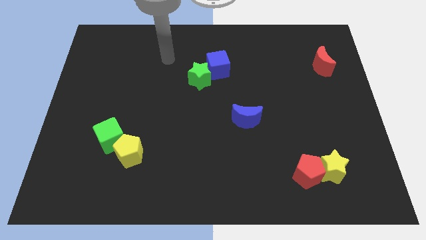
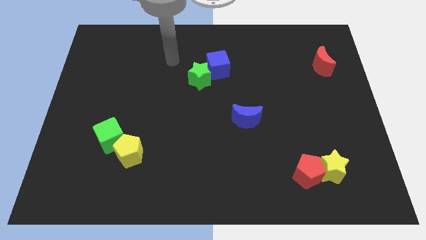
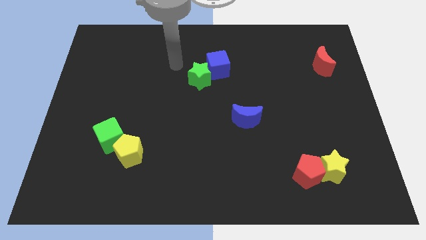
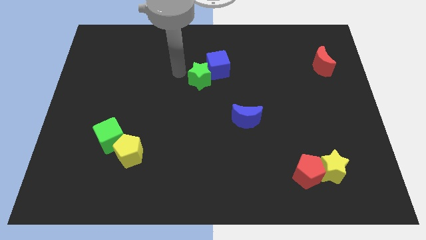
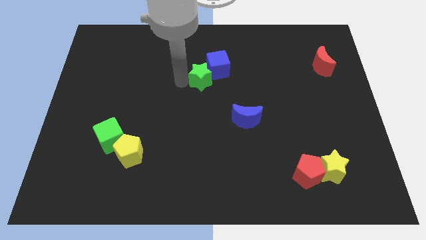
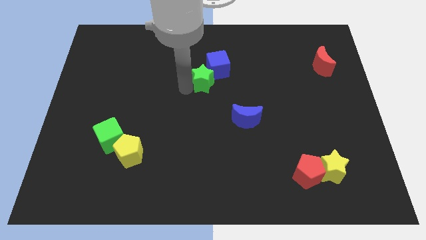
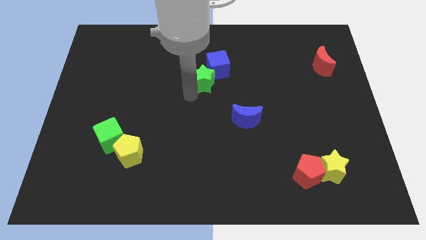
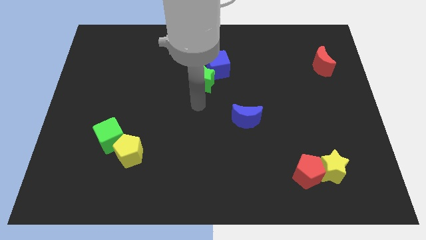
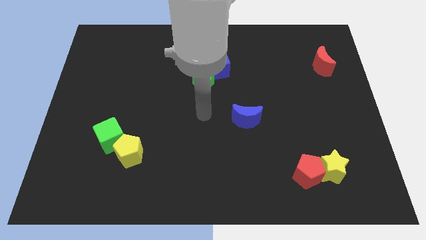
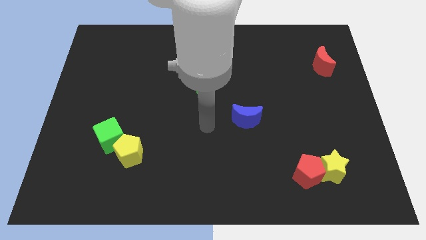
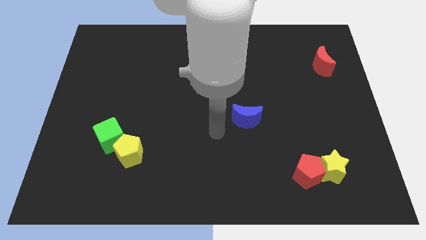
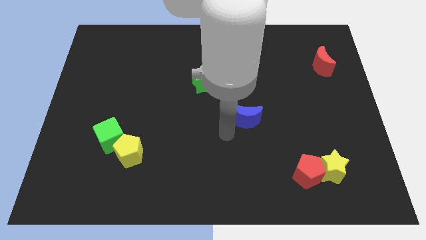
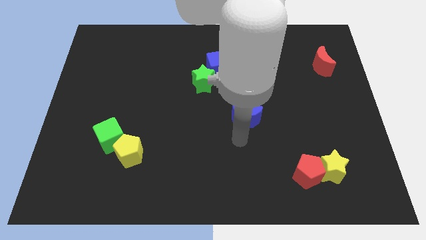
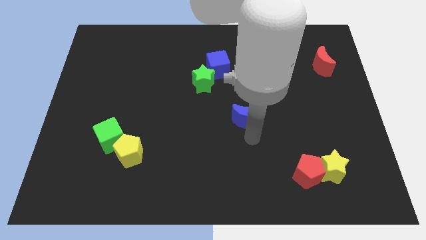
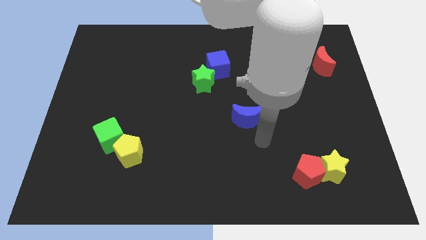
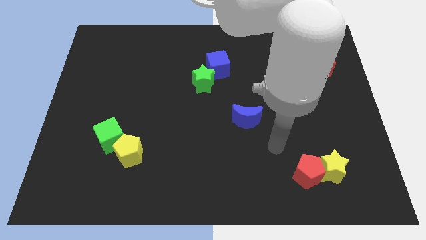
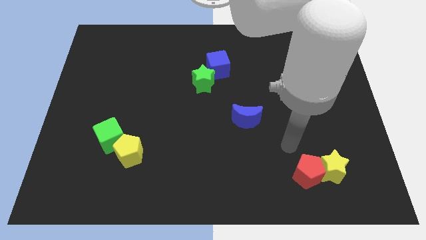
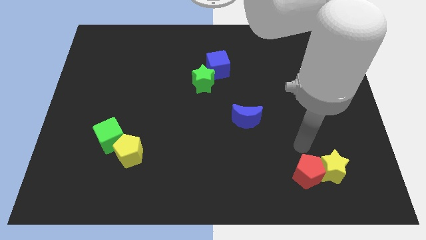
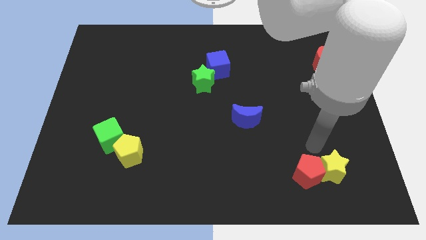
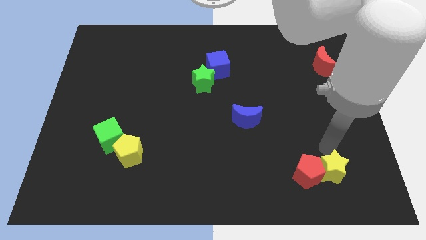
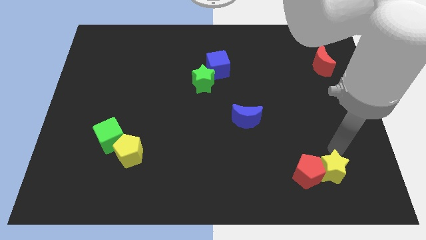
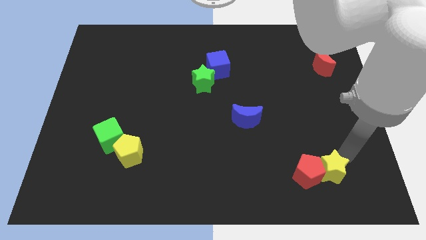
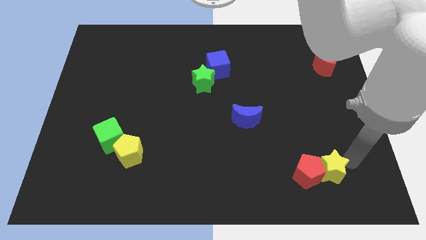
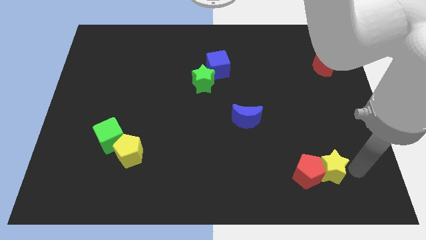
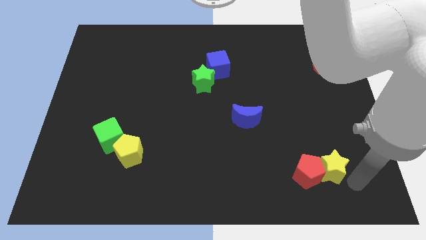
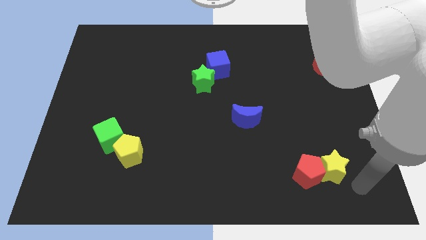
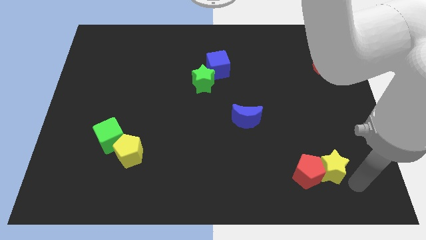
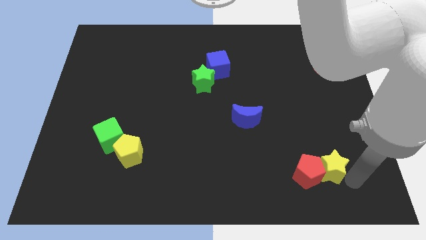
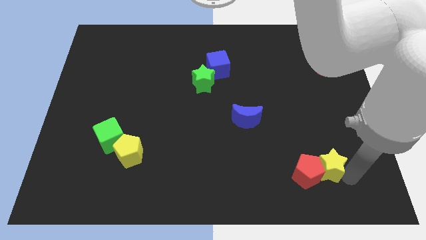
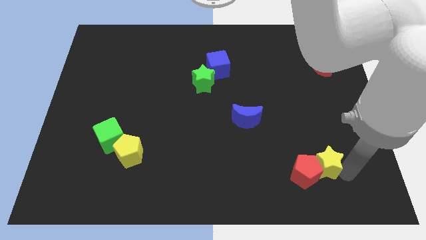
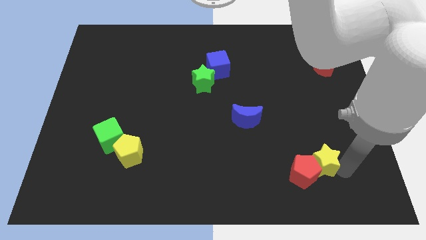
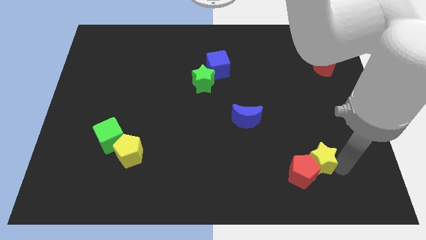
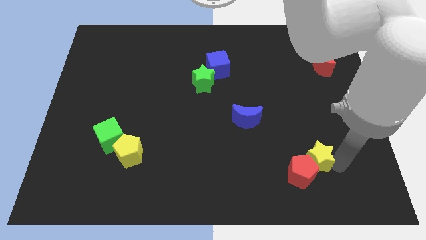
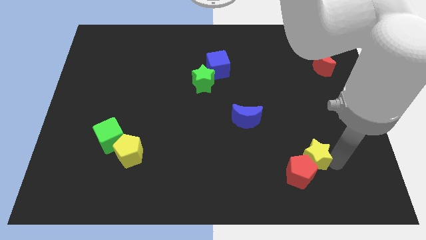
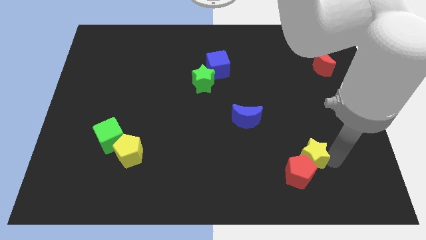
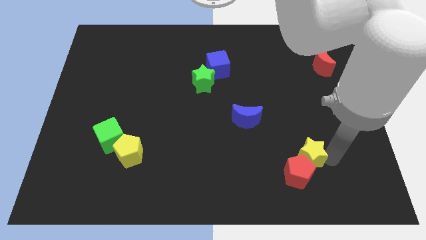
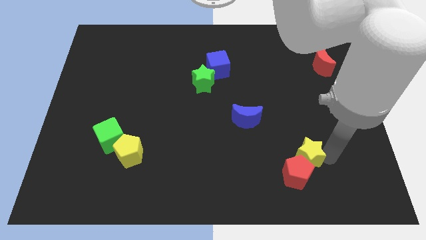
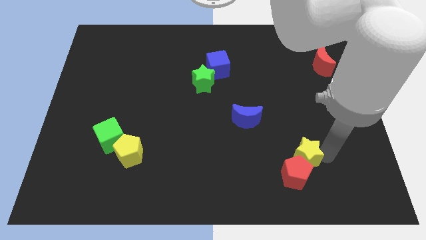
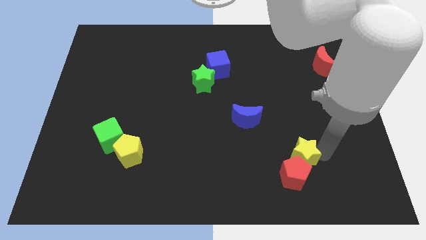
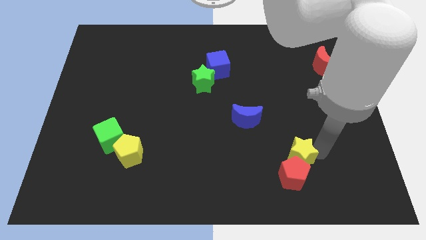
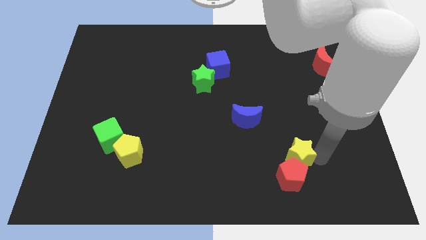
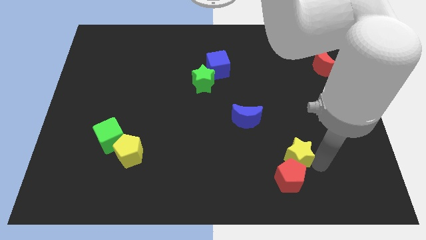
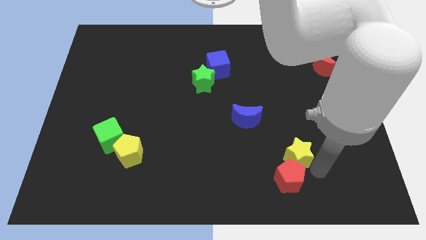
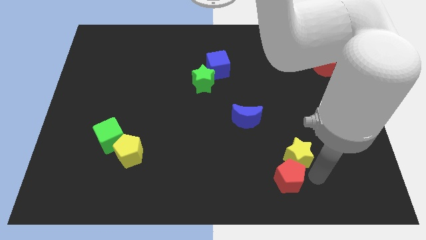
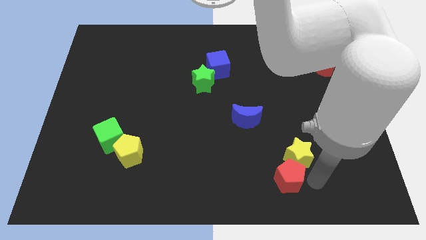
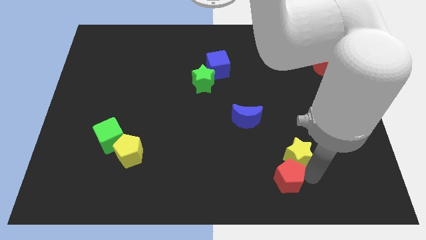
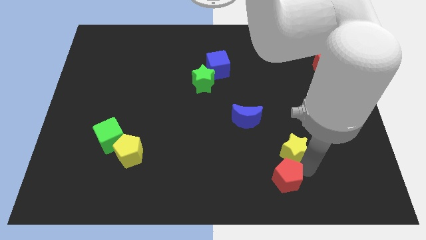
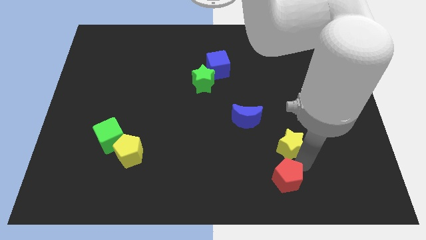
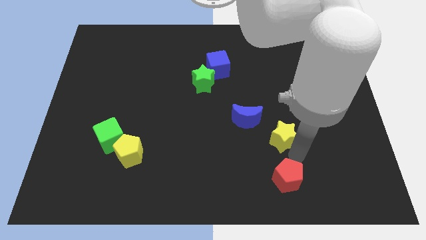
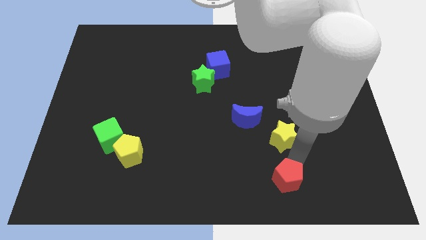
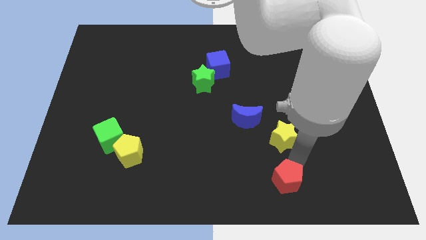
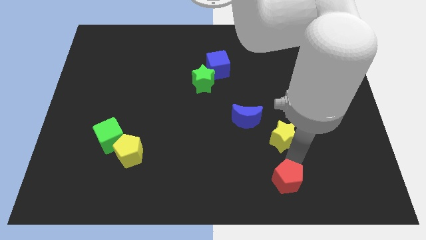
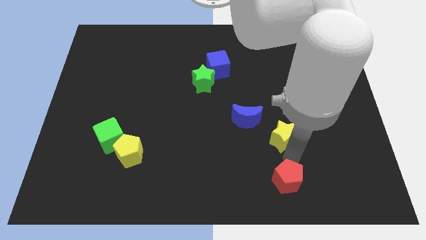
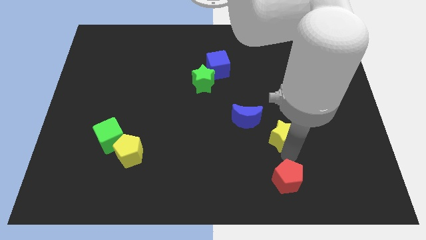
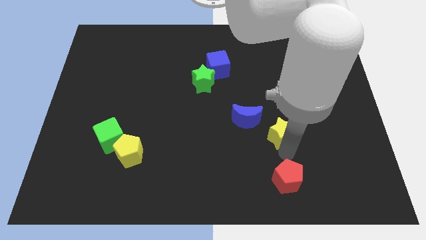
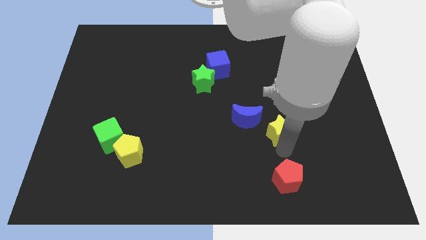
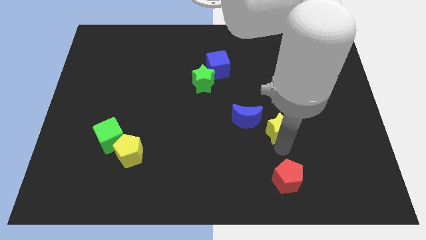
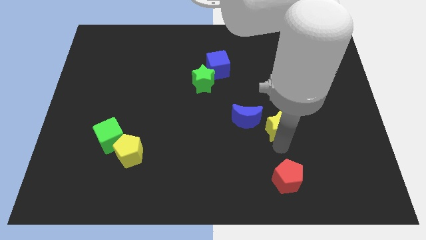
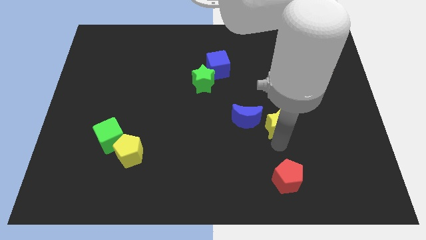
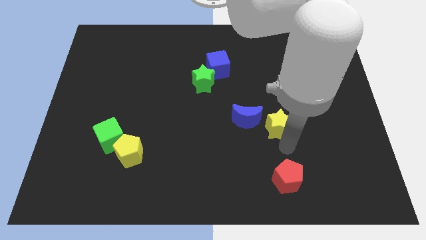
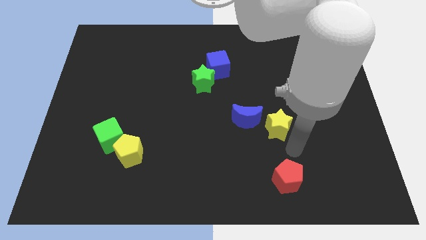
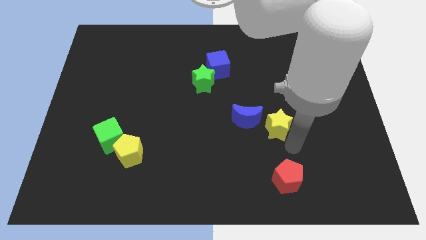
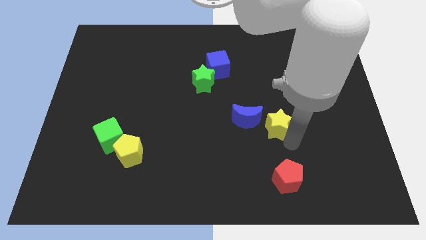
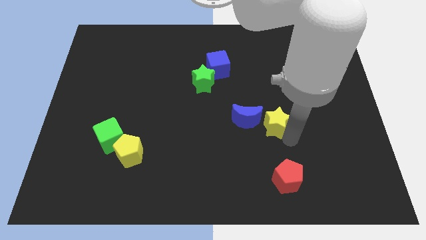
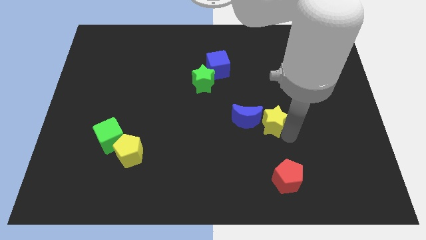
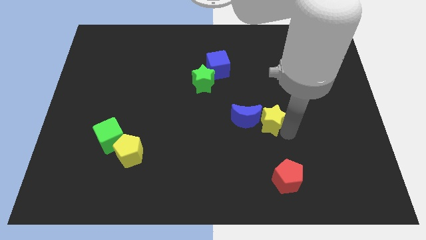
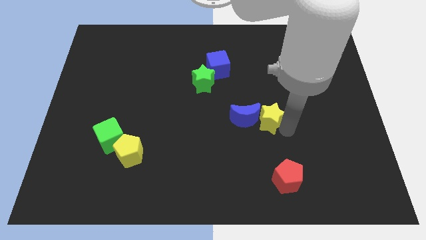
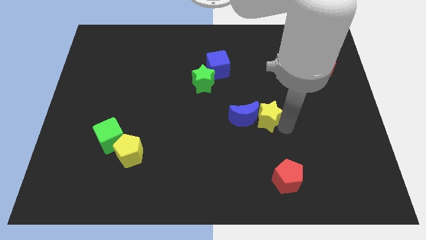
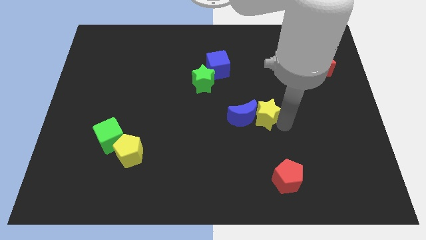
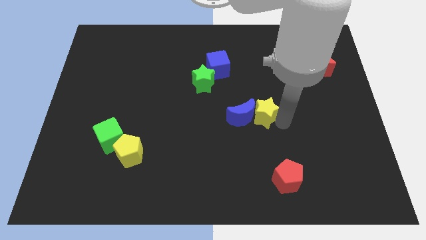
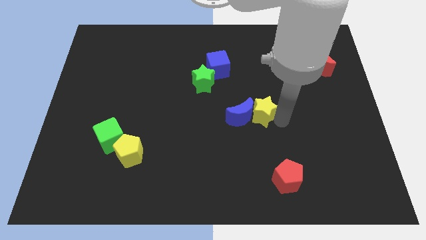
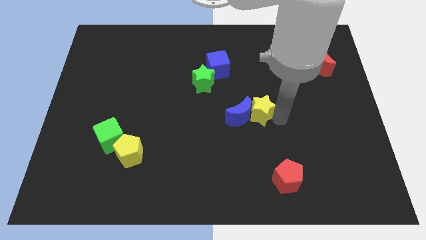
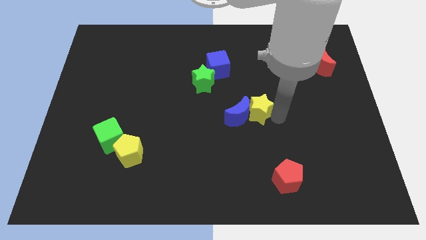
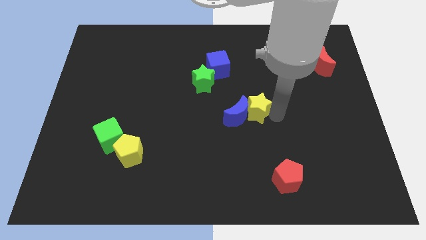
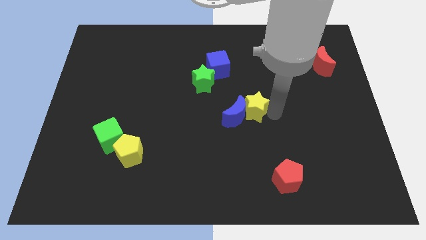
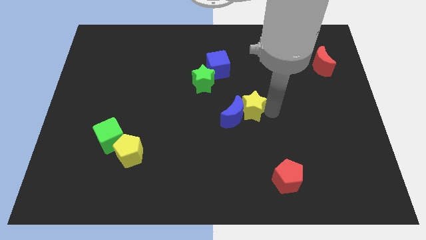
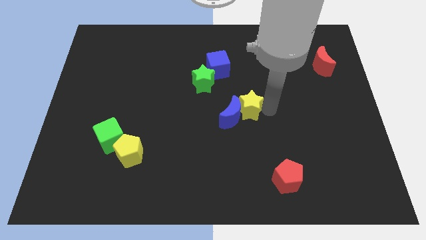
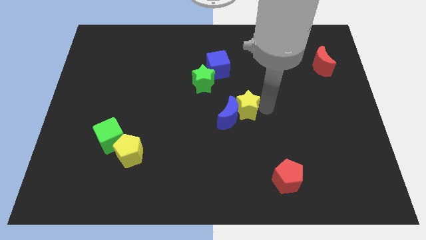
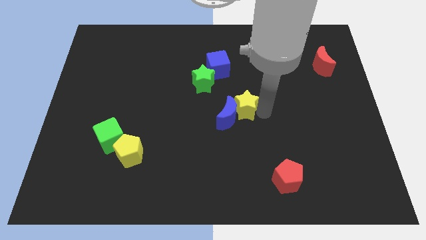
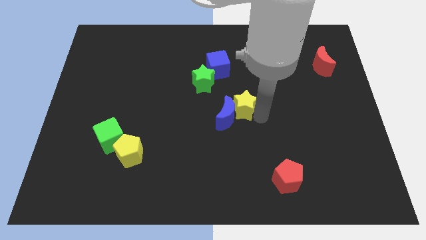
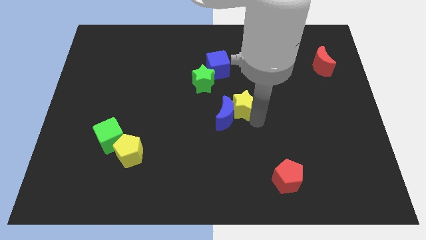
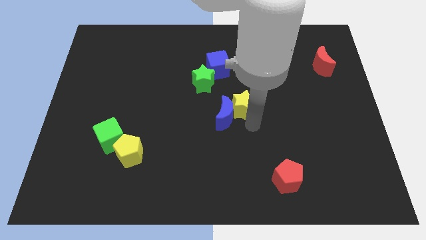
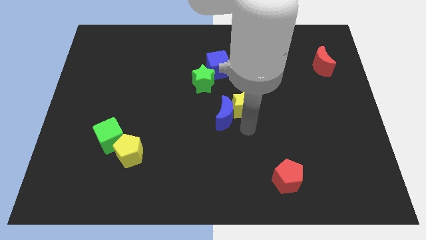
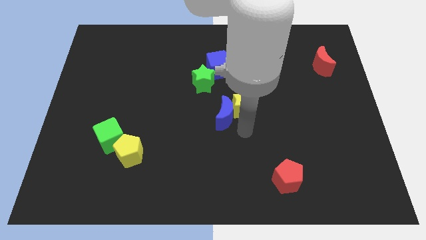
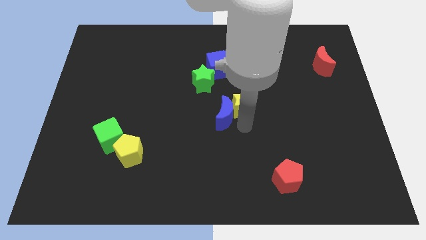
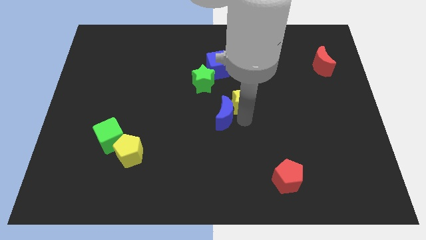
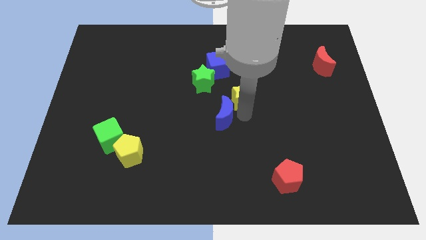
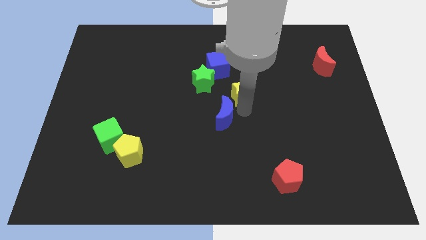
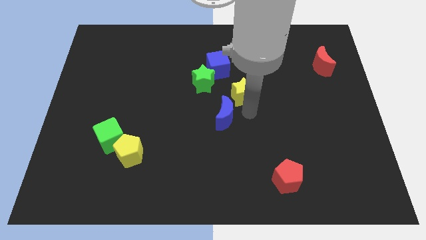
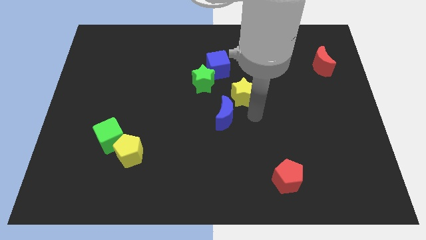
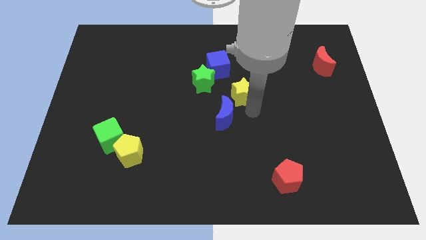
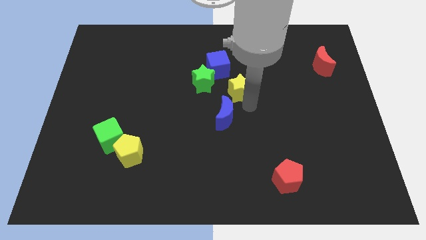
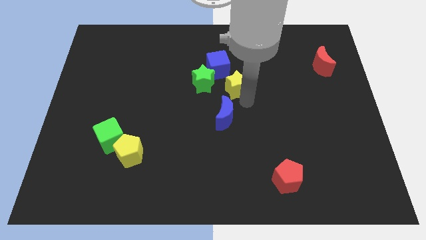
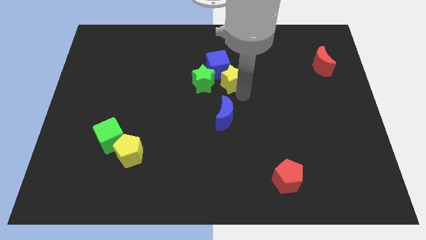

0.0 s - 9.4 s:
push the yellow star next to the blue cube
